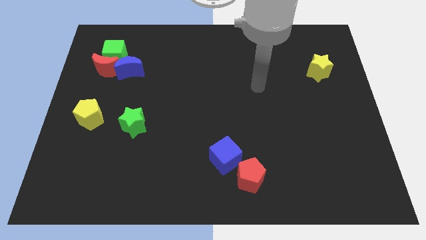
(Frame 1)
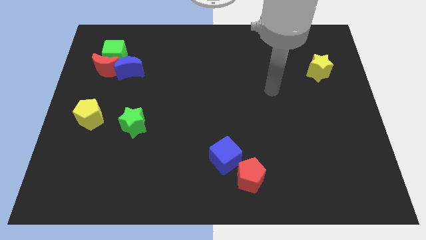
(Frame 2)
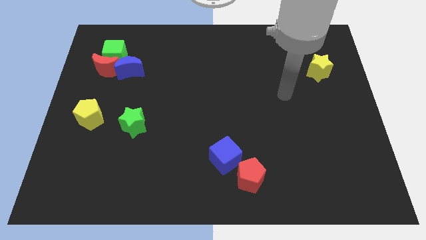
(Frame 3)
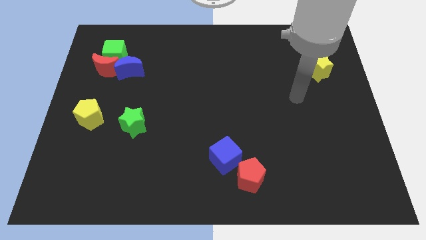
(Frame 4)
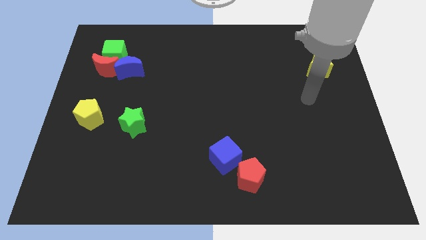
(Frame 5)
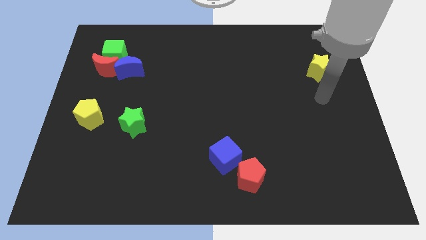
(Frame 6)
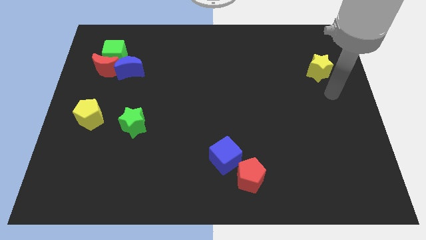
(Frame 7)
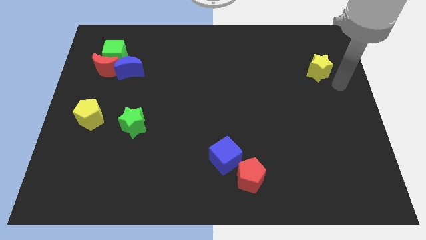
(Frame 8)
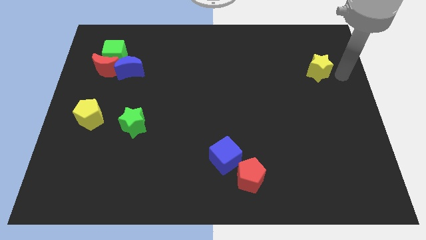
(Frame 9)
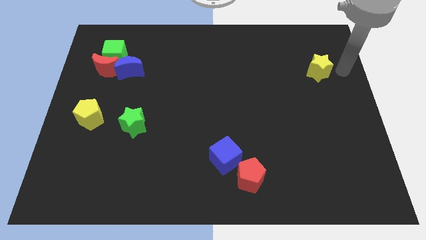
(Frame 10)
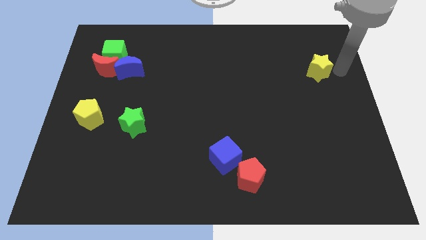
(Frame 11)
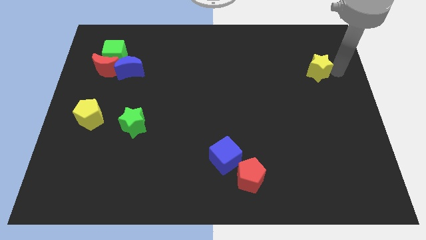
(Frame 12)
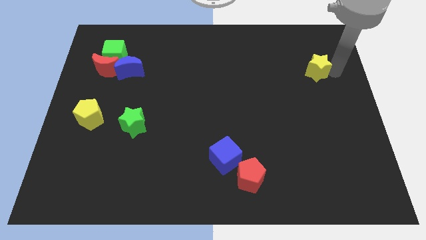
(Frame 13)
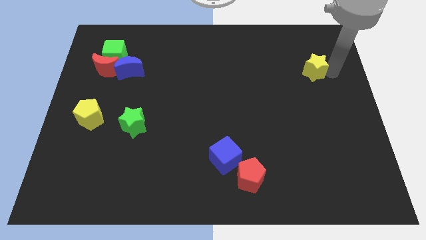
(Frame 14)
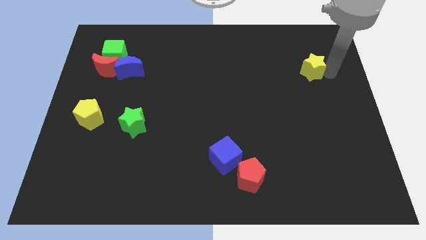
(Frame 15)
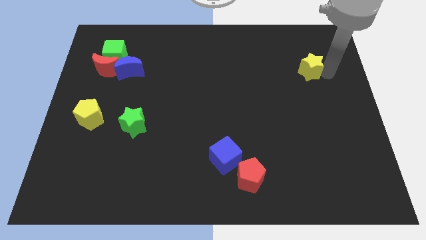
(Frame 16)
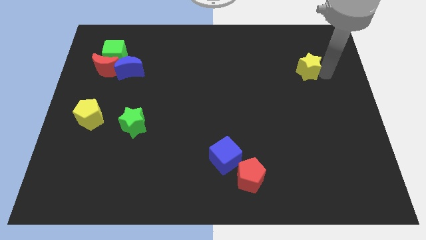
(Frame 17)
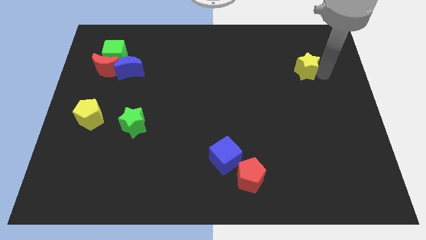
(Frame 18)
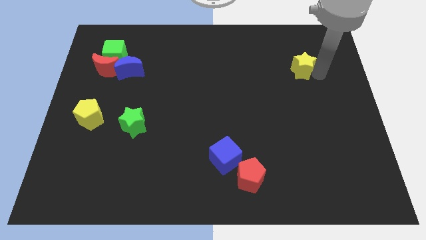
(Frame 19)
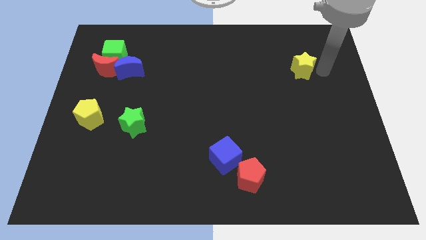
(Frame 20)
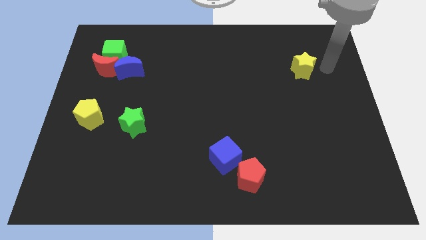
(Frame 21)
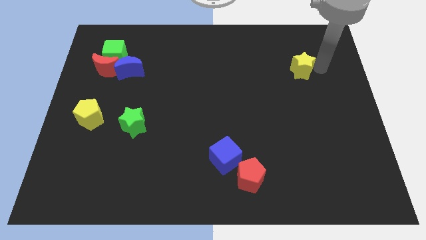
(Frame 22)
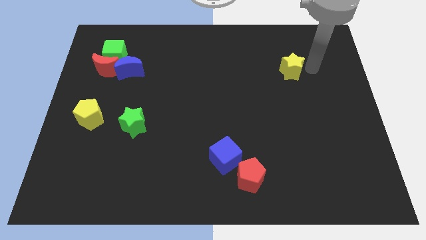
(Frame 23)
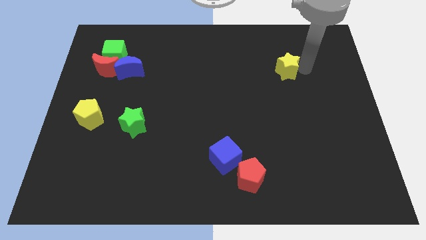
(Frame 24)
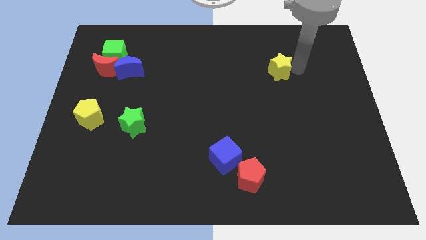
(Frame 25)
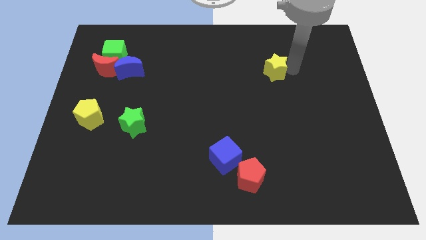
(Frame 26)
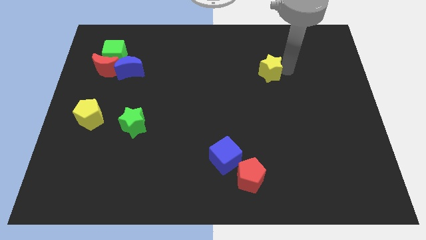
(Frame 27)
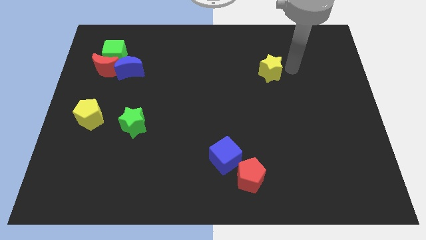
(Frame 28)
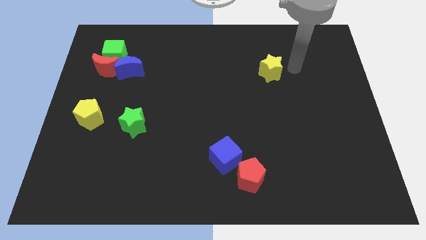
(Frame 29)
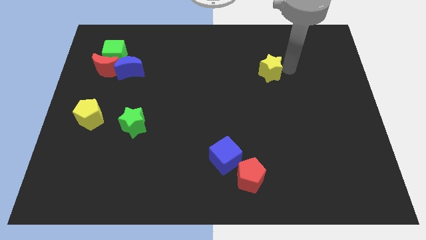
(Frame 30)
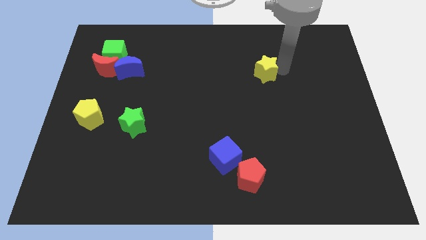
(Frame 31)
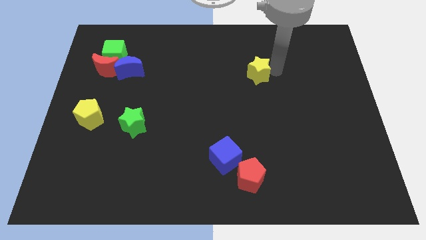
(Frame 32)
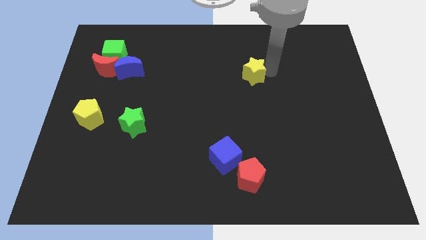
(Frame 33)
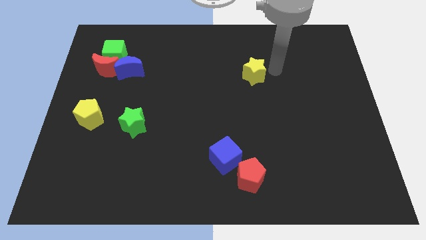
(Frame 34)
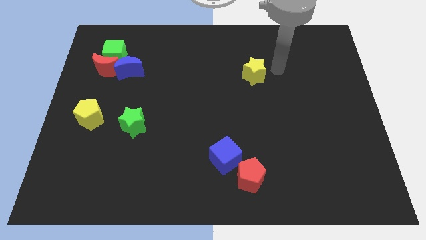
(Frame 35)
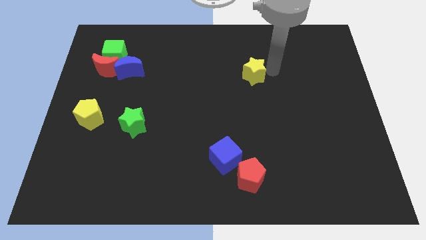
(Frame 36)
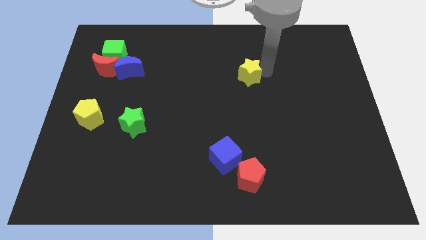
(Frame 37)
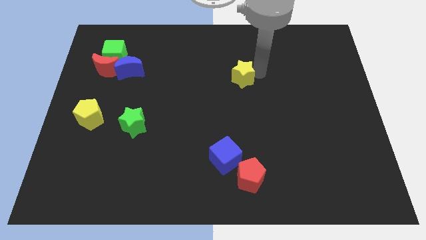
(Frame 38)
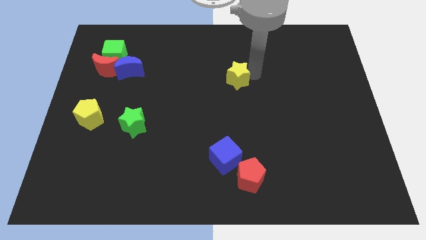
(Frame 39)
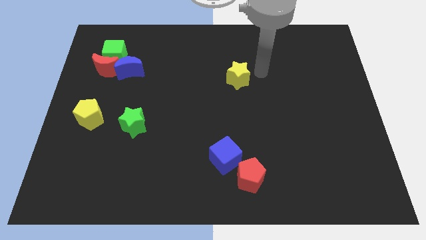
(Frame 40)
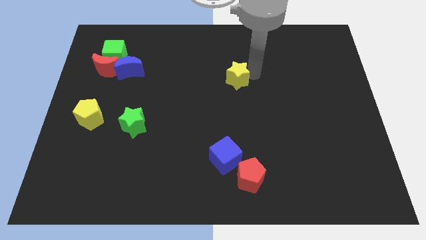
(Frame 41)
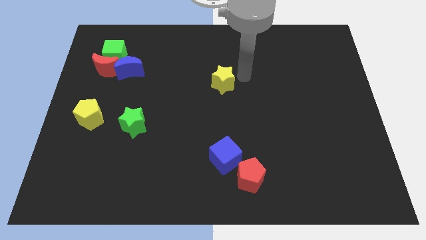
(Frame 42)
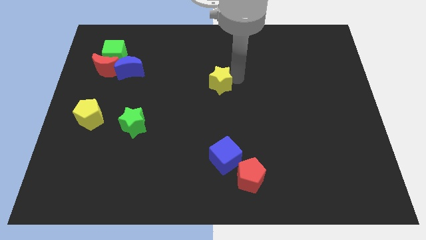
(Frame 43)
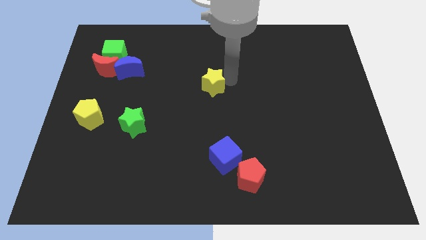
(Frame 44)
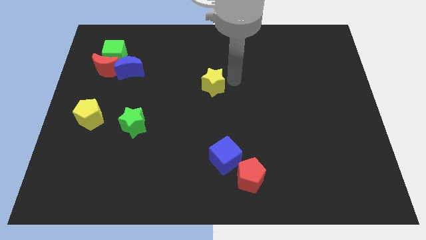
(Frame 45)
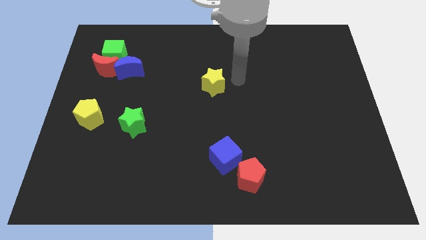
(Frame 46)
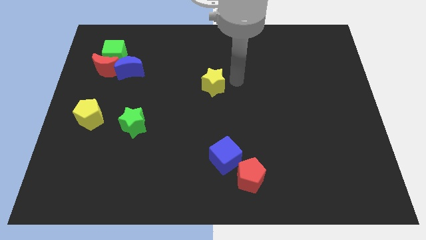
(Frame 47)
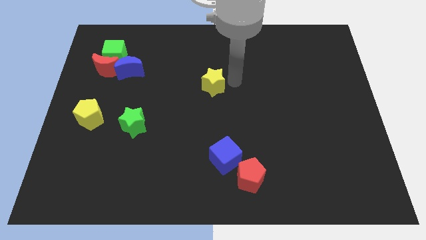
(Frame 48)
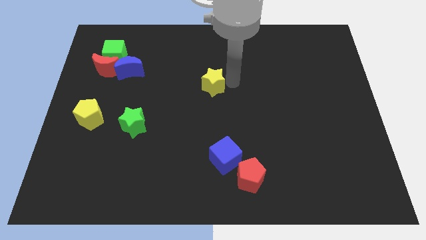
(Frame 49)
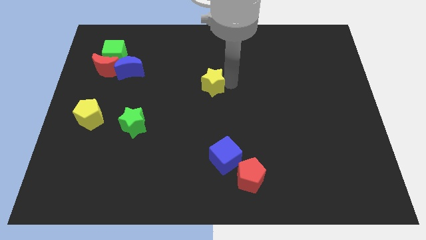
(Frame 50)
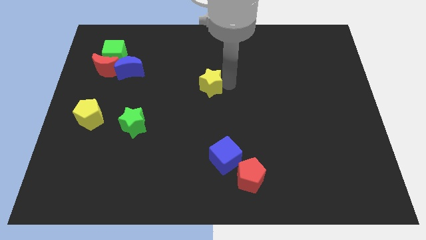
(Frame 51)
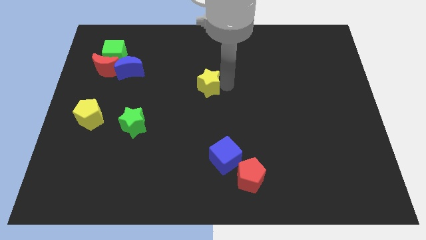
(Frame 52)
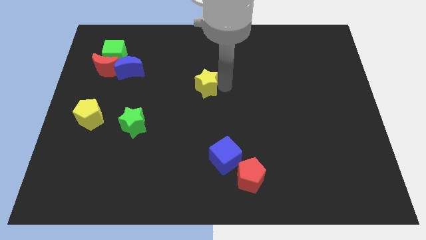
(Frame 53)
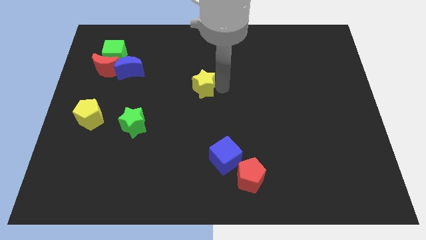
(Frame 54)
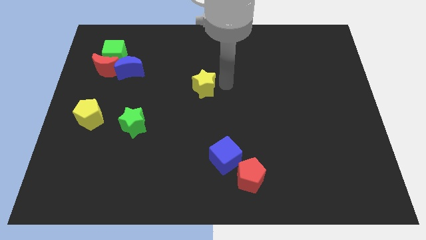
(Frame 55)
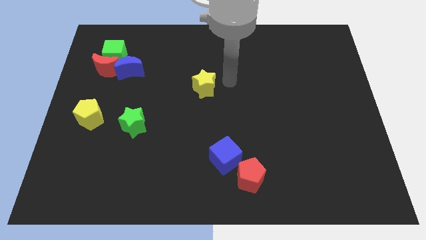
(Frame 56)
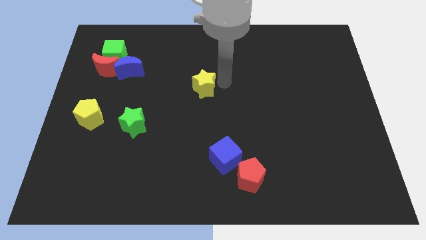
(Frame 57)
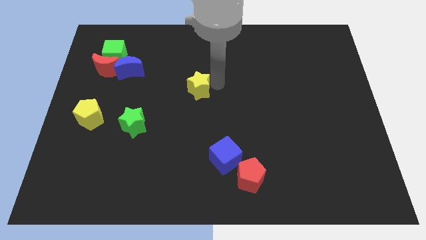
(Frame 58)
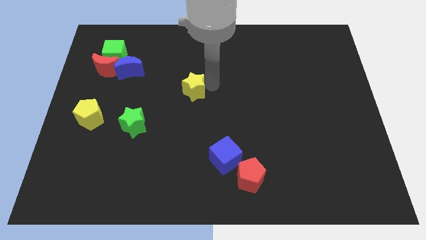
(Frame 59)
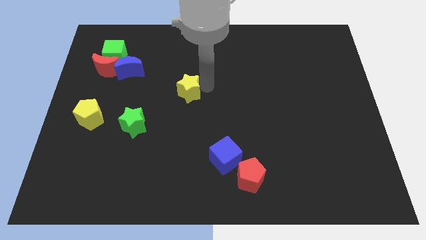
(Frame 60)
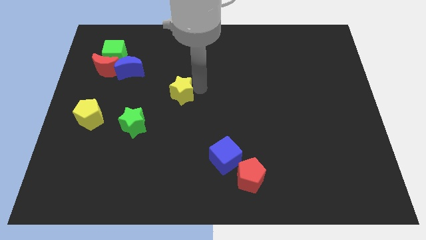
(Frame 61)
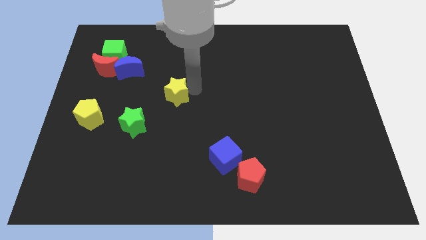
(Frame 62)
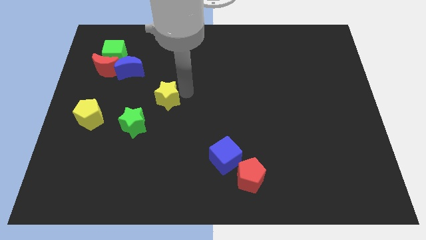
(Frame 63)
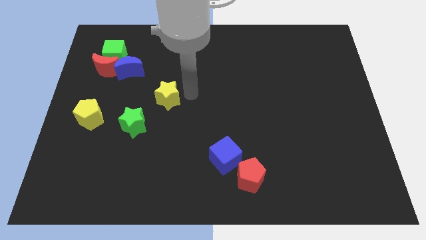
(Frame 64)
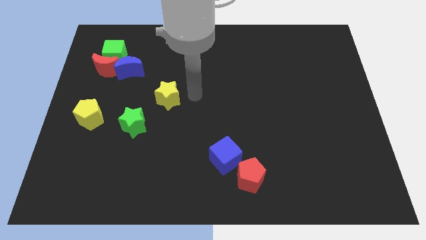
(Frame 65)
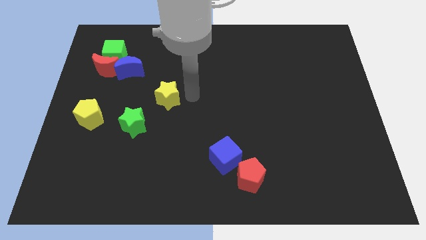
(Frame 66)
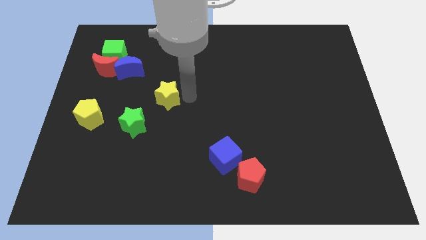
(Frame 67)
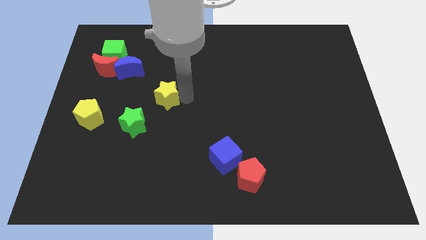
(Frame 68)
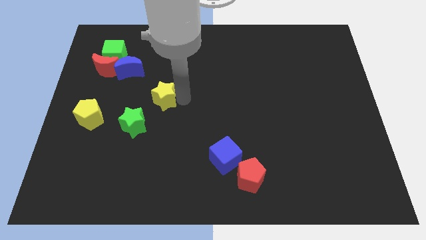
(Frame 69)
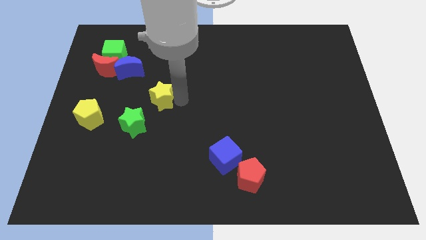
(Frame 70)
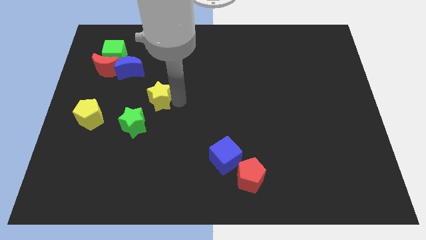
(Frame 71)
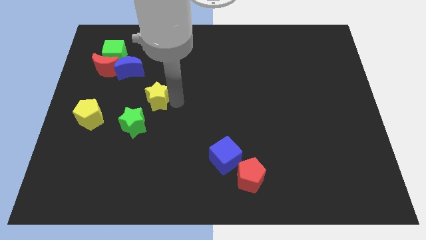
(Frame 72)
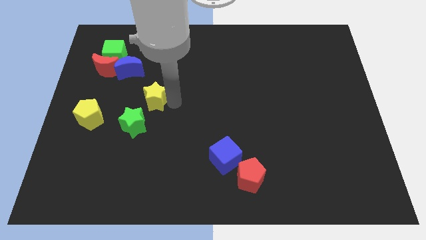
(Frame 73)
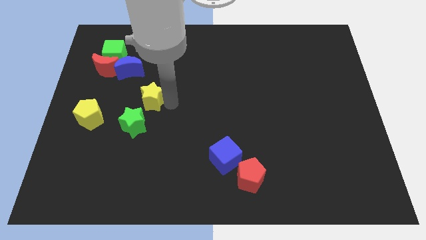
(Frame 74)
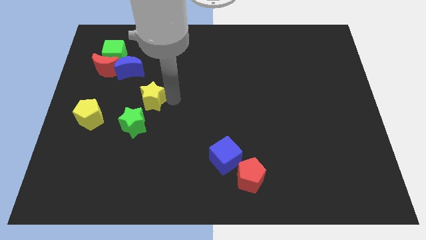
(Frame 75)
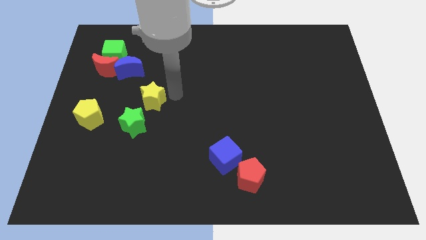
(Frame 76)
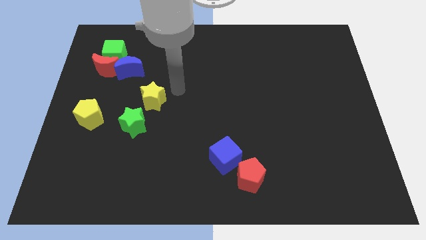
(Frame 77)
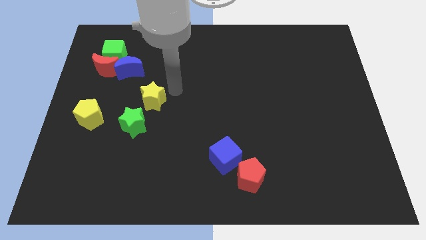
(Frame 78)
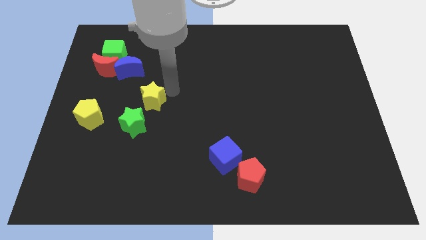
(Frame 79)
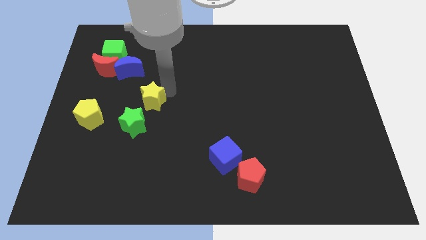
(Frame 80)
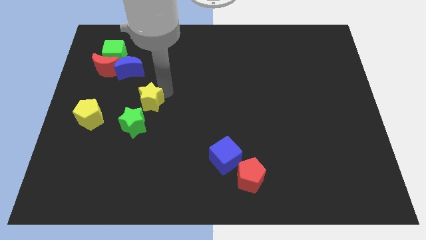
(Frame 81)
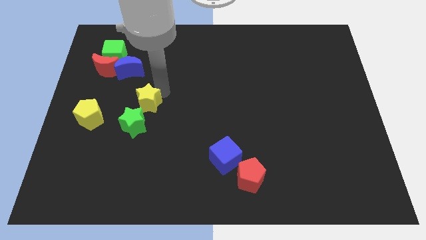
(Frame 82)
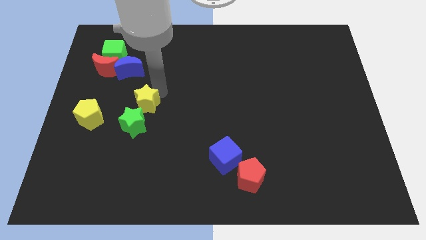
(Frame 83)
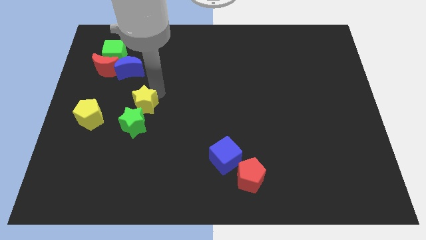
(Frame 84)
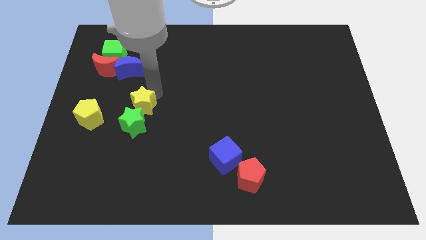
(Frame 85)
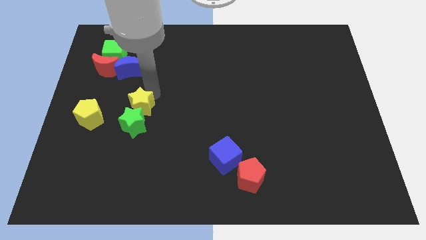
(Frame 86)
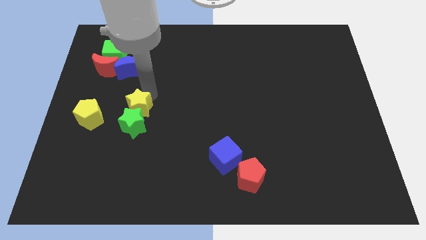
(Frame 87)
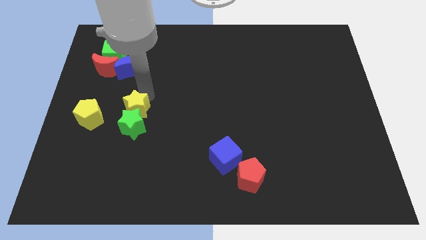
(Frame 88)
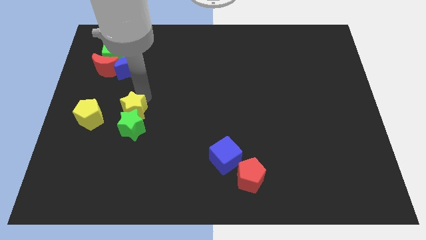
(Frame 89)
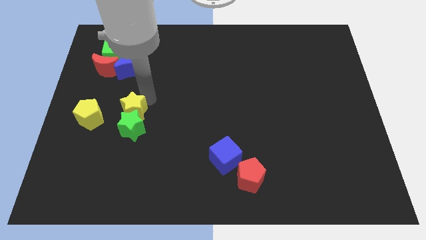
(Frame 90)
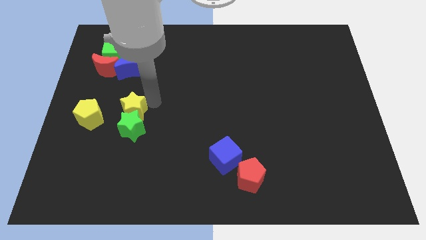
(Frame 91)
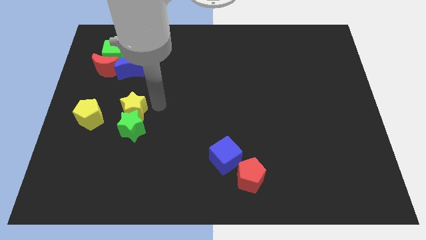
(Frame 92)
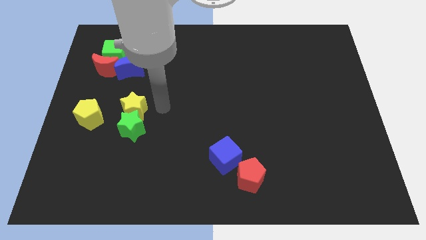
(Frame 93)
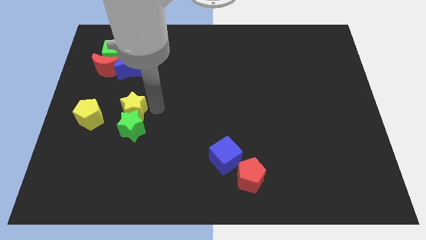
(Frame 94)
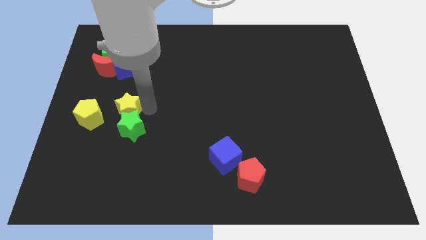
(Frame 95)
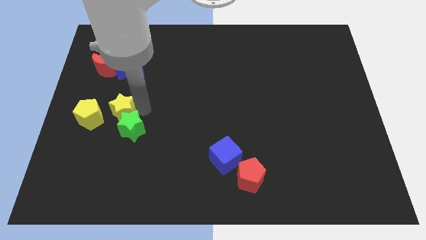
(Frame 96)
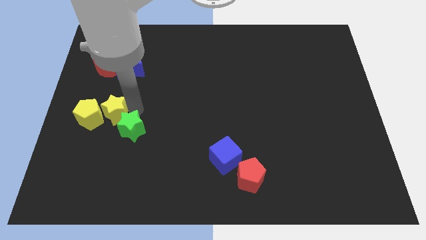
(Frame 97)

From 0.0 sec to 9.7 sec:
put the yellow star towards the yellow pentagon
